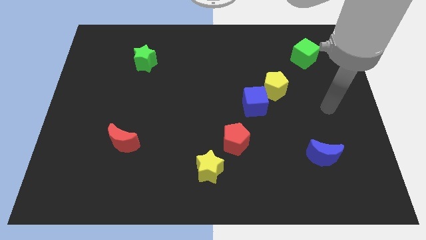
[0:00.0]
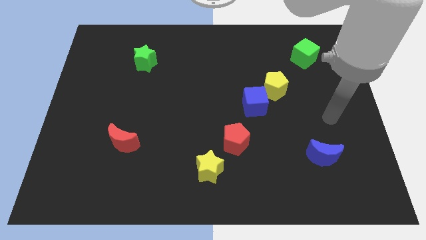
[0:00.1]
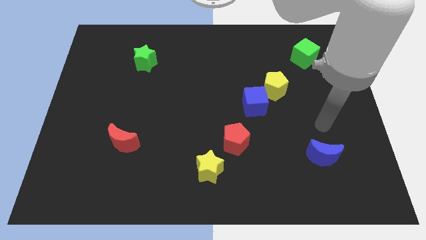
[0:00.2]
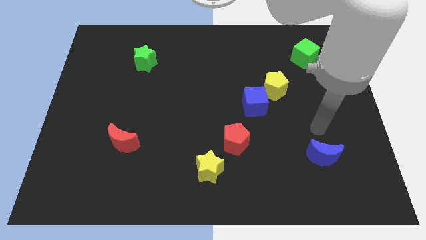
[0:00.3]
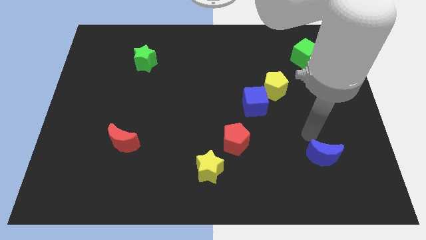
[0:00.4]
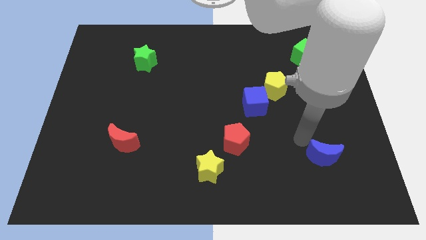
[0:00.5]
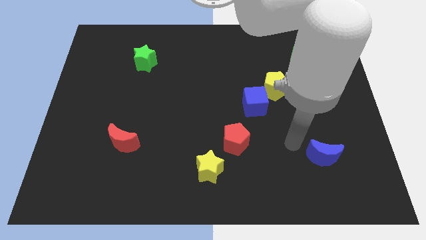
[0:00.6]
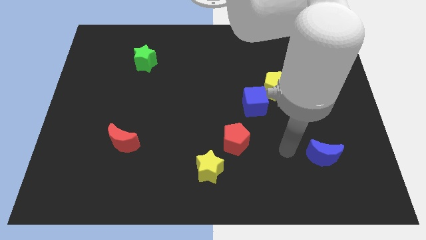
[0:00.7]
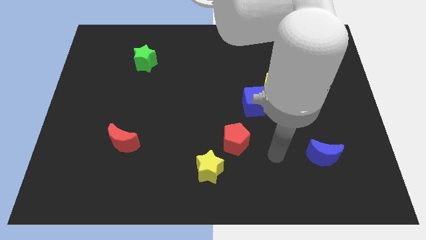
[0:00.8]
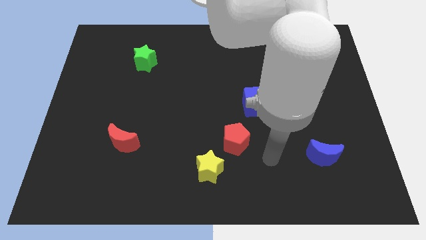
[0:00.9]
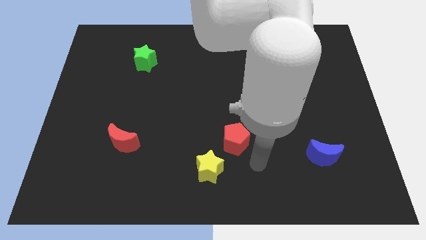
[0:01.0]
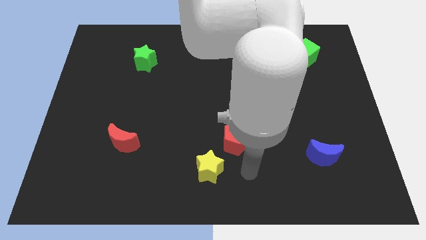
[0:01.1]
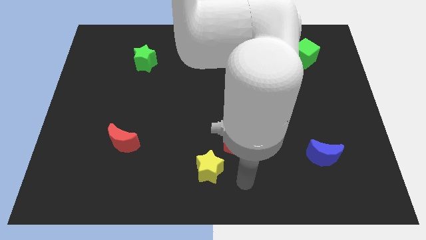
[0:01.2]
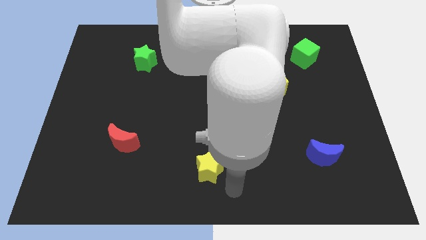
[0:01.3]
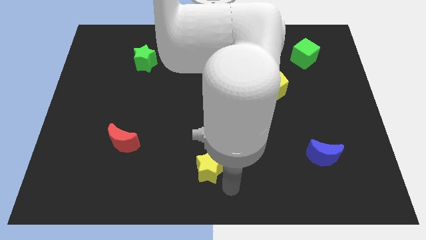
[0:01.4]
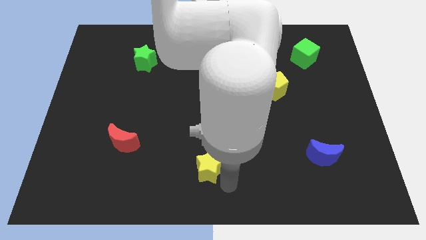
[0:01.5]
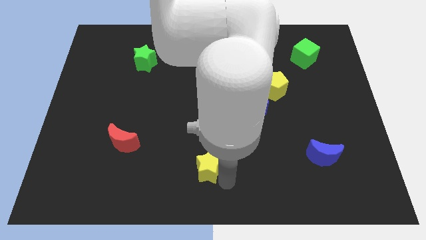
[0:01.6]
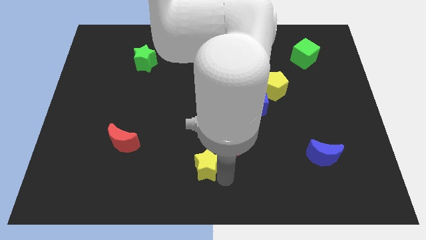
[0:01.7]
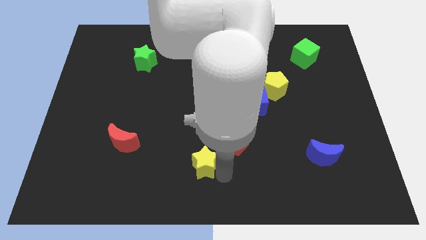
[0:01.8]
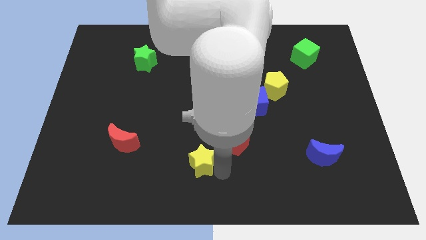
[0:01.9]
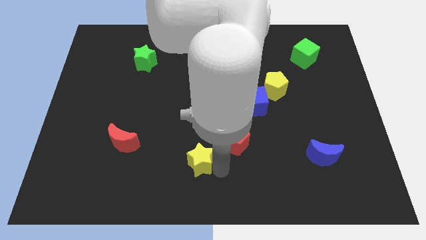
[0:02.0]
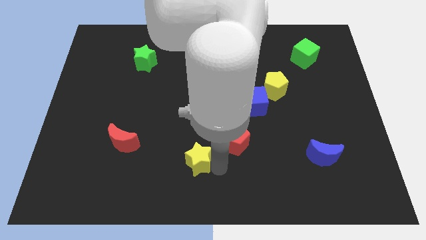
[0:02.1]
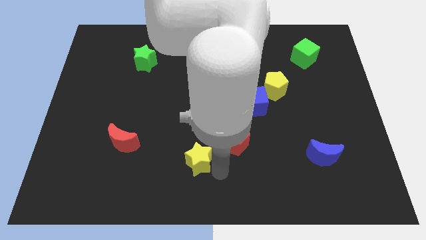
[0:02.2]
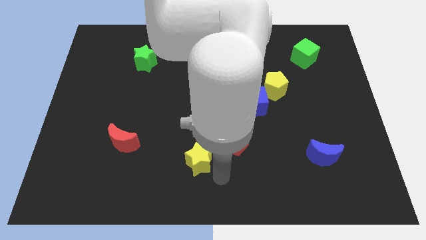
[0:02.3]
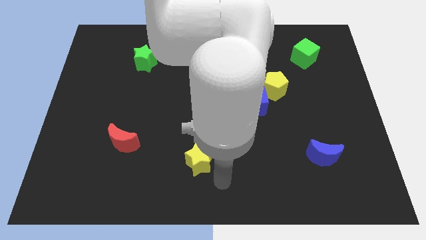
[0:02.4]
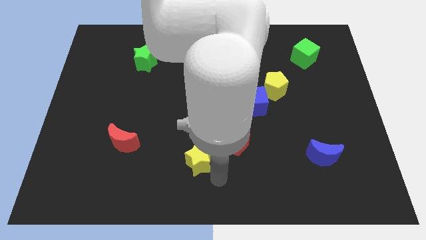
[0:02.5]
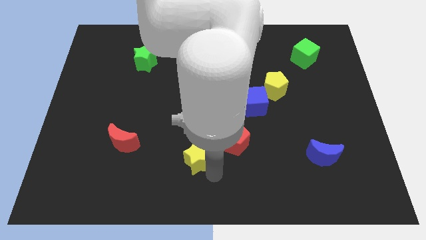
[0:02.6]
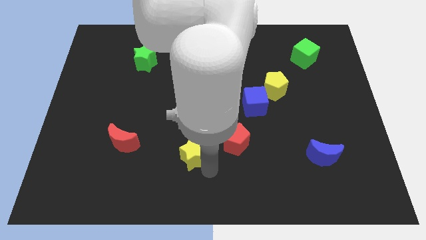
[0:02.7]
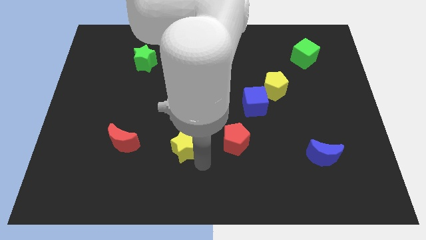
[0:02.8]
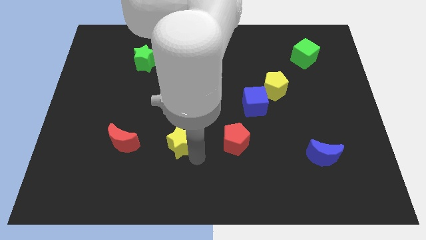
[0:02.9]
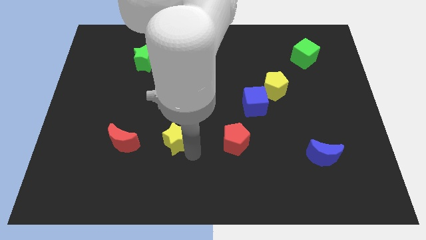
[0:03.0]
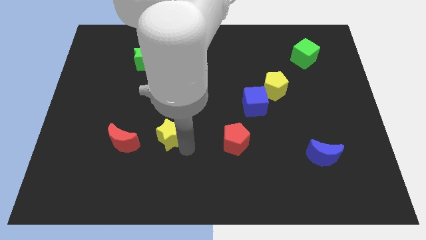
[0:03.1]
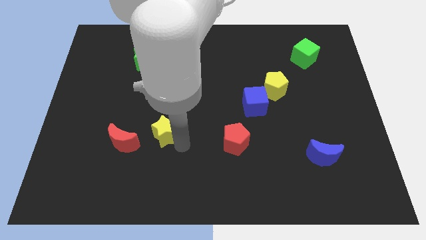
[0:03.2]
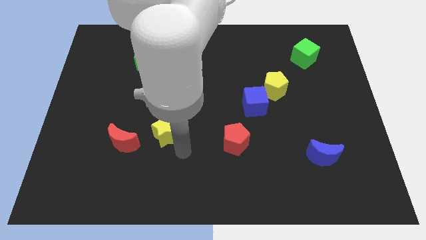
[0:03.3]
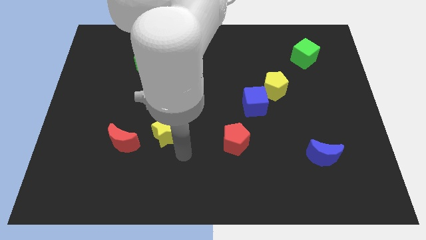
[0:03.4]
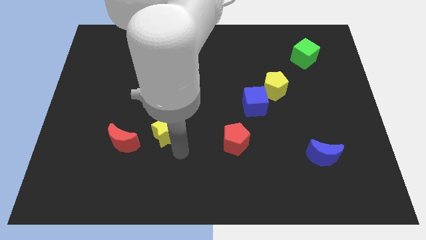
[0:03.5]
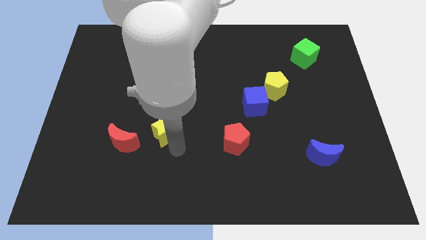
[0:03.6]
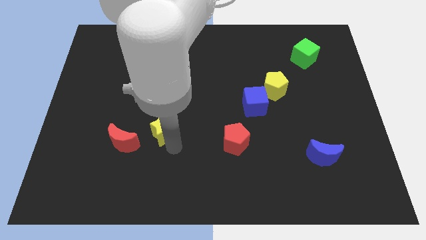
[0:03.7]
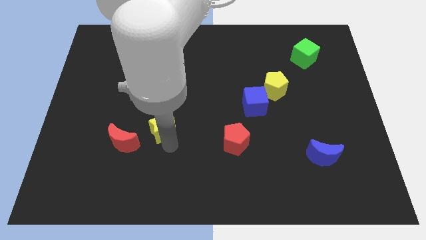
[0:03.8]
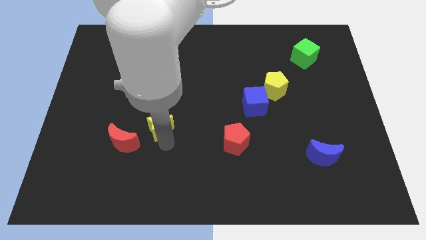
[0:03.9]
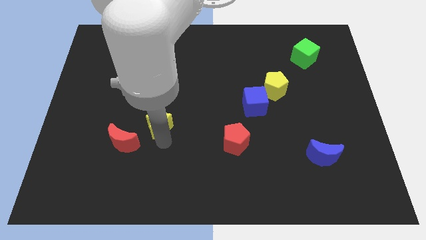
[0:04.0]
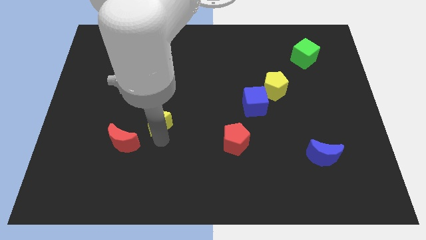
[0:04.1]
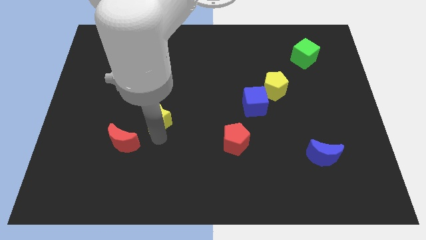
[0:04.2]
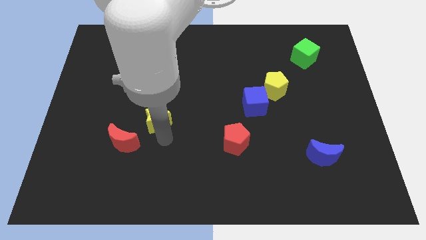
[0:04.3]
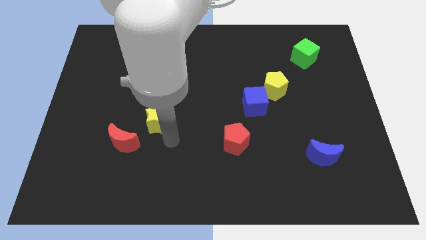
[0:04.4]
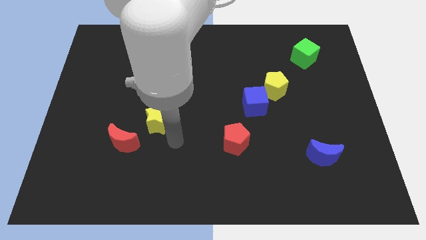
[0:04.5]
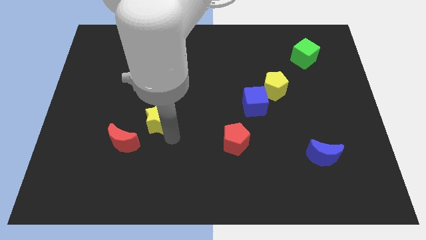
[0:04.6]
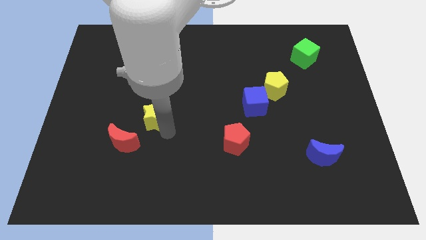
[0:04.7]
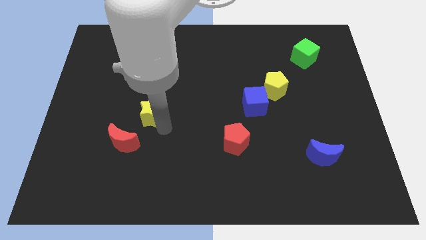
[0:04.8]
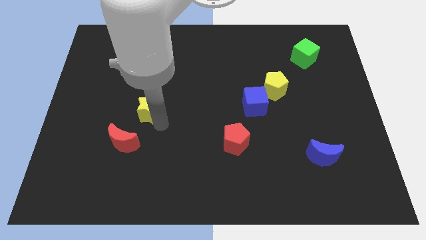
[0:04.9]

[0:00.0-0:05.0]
move the yellow star diagonally upwards and to the left

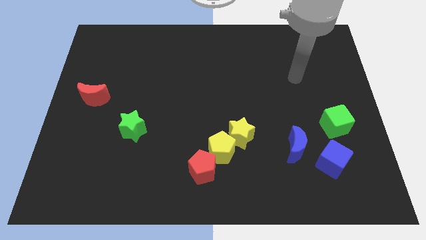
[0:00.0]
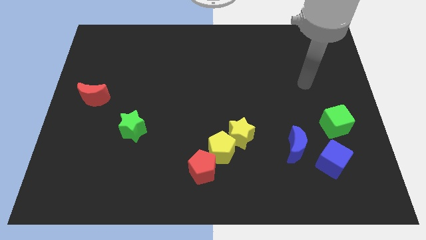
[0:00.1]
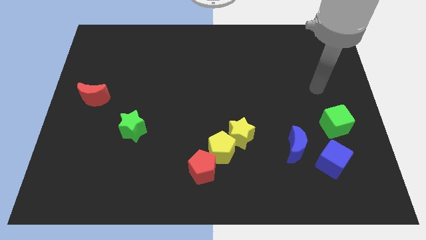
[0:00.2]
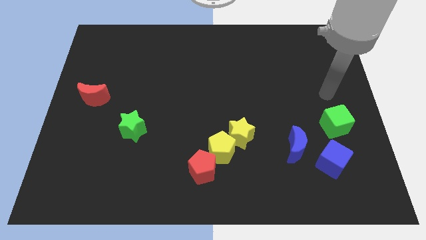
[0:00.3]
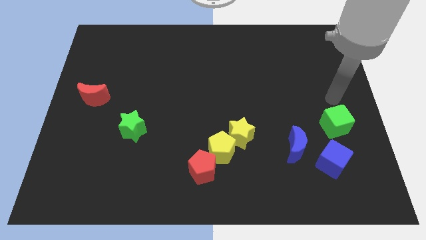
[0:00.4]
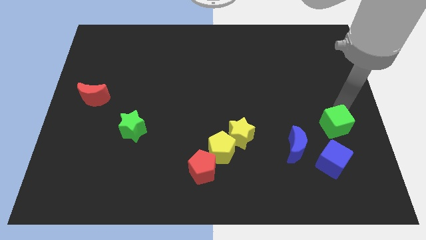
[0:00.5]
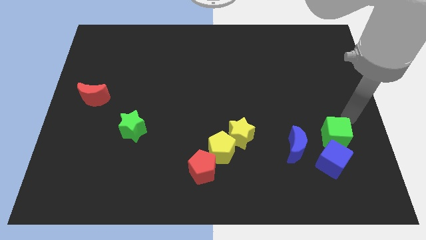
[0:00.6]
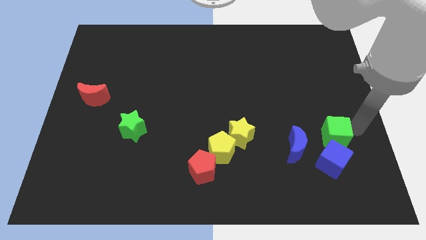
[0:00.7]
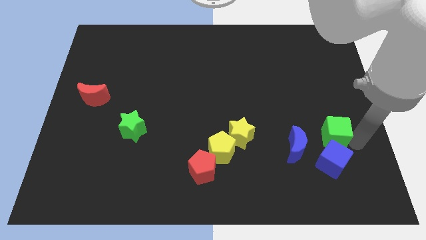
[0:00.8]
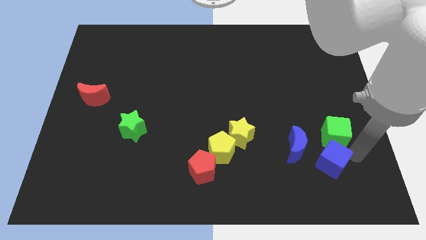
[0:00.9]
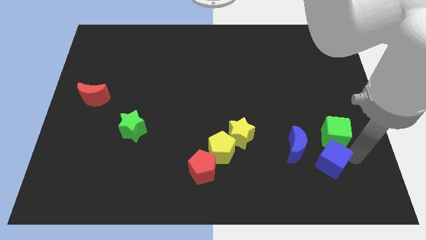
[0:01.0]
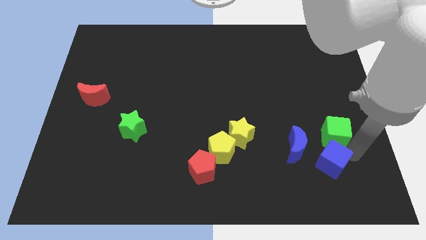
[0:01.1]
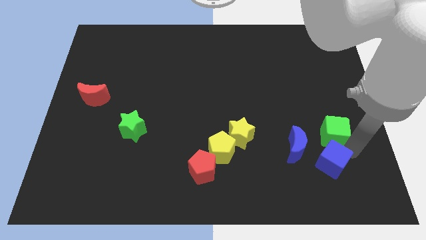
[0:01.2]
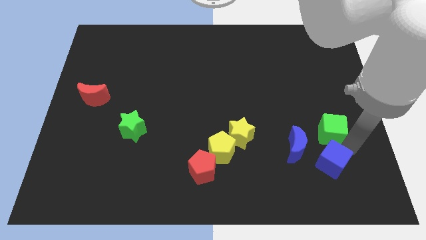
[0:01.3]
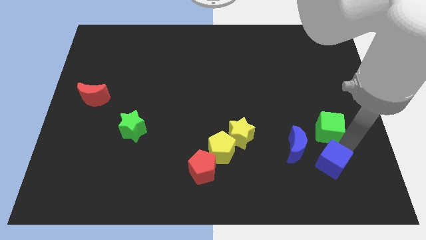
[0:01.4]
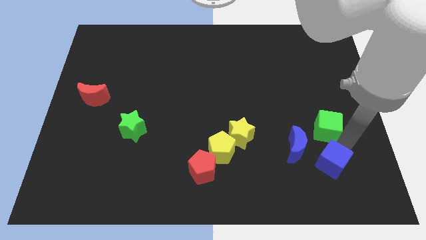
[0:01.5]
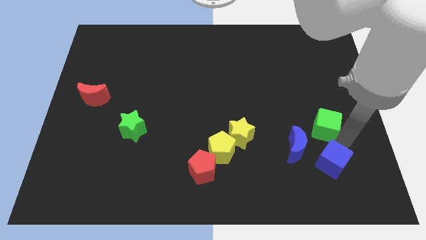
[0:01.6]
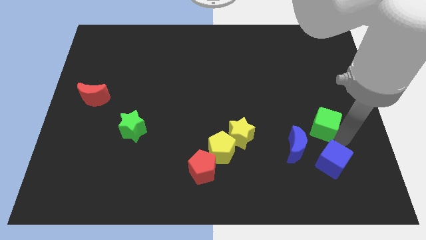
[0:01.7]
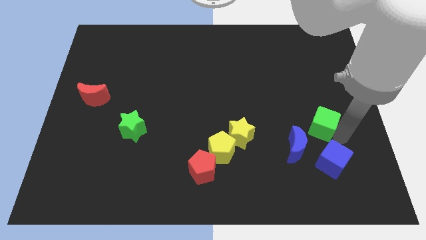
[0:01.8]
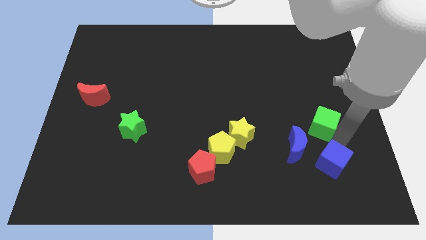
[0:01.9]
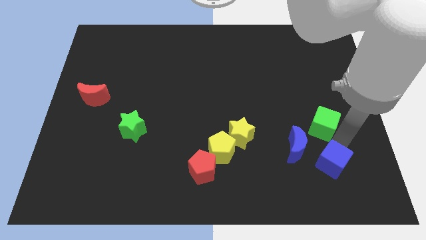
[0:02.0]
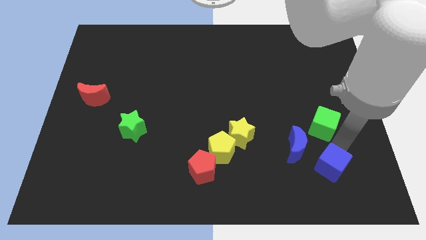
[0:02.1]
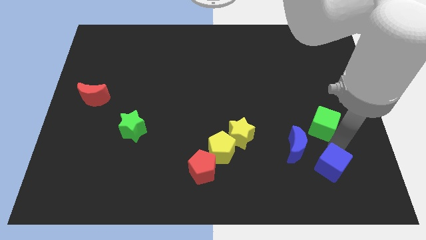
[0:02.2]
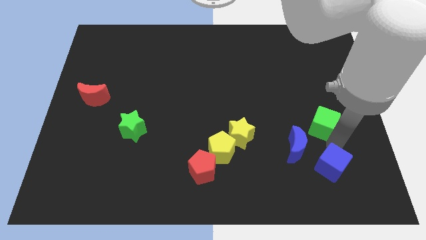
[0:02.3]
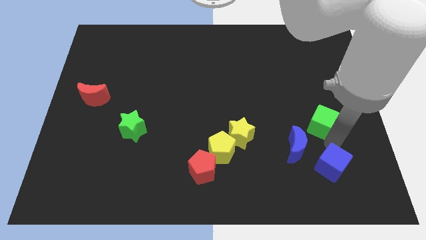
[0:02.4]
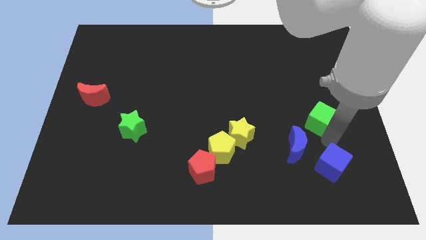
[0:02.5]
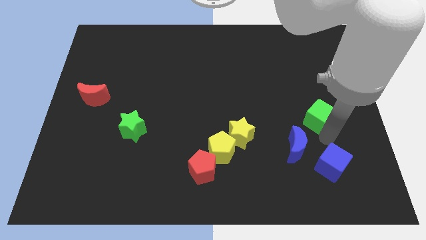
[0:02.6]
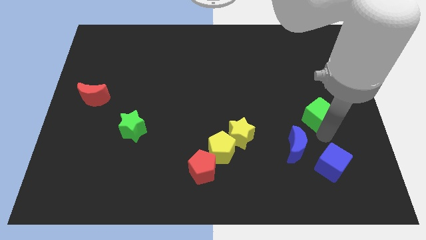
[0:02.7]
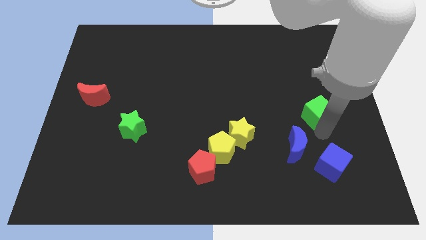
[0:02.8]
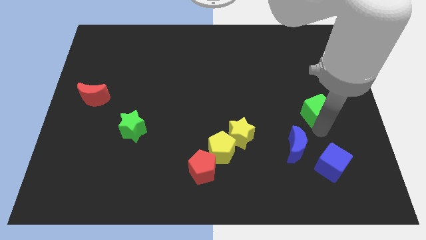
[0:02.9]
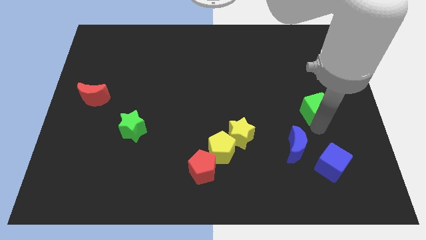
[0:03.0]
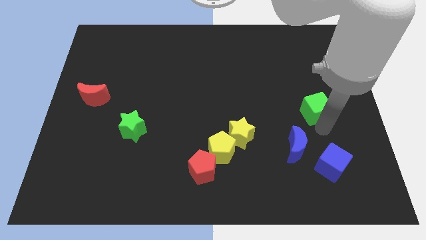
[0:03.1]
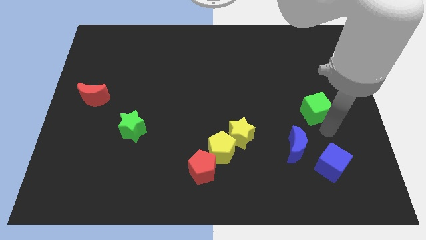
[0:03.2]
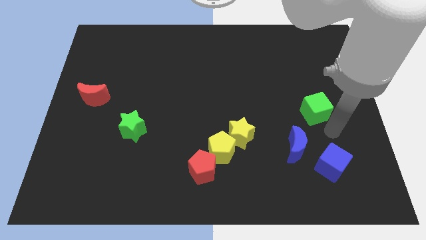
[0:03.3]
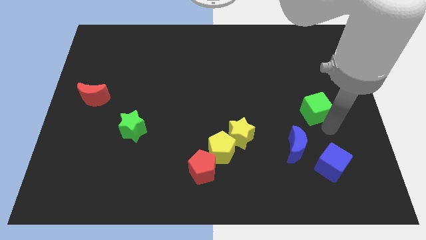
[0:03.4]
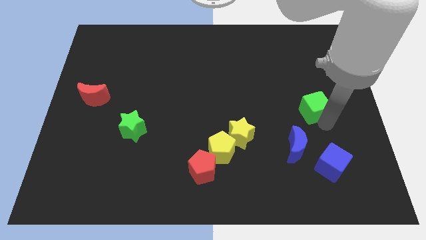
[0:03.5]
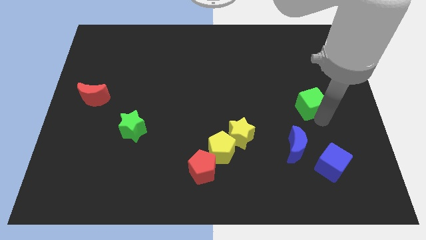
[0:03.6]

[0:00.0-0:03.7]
push the green cube diagonally up and left somewhat
